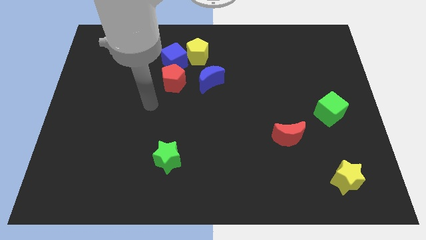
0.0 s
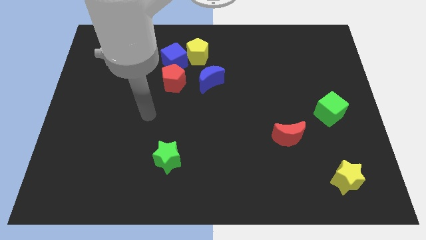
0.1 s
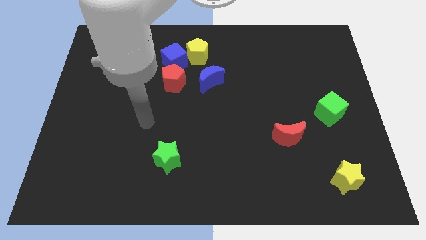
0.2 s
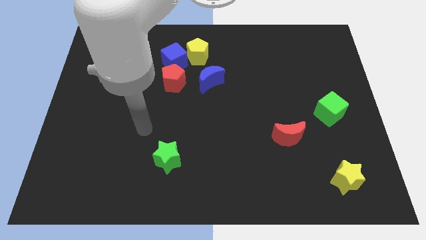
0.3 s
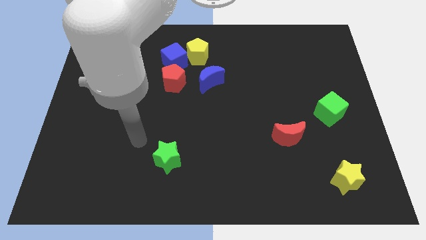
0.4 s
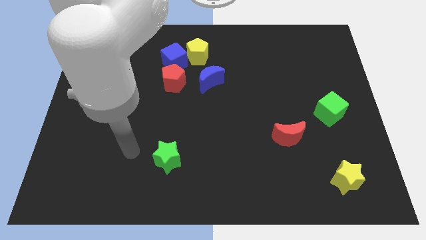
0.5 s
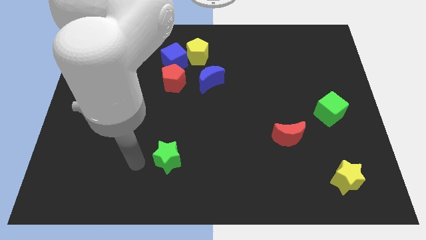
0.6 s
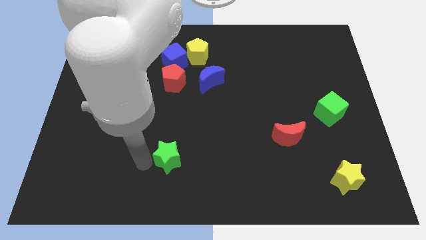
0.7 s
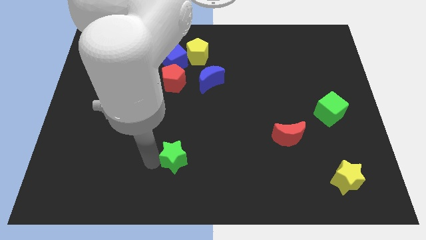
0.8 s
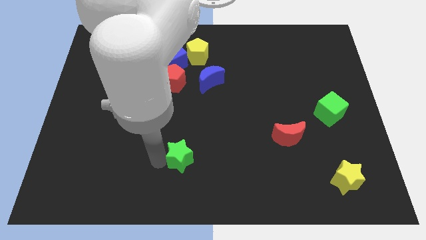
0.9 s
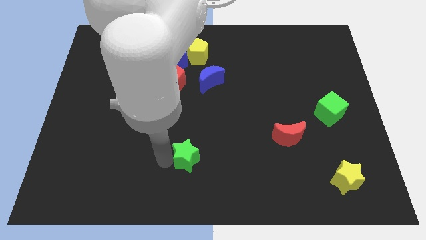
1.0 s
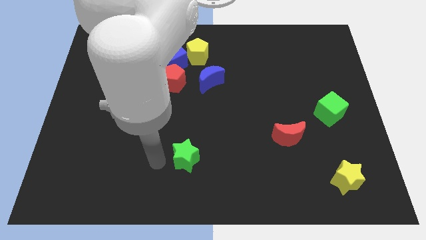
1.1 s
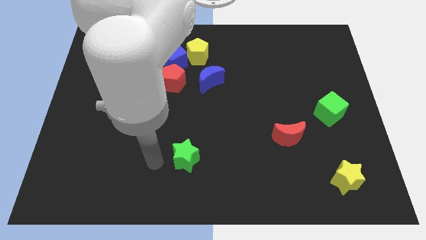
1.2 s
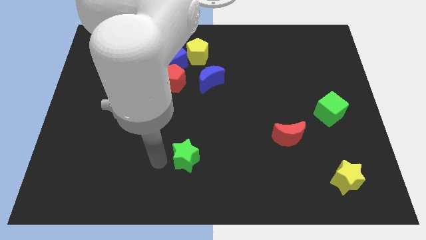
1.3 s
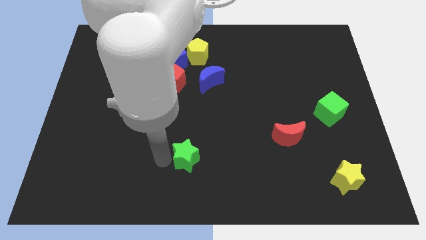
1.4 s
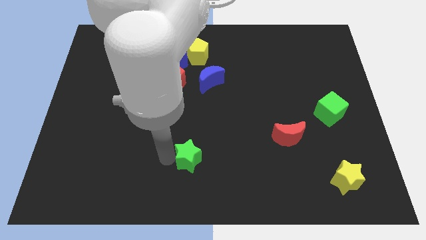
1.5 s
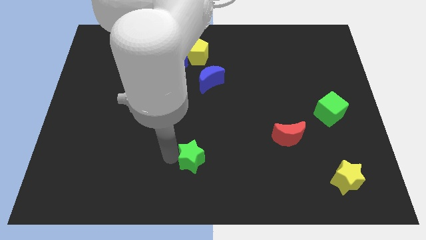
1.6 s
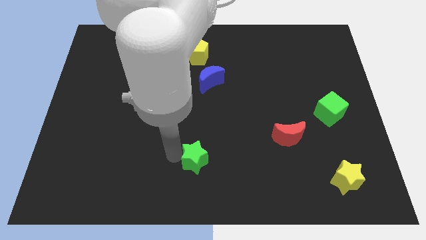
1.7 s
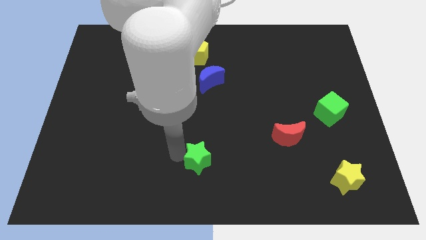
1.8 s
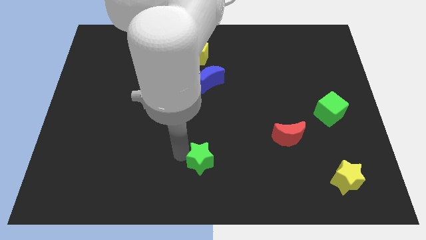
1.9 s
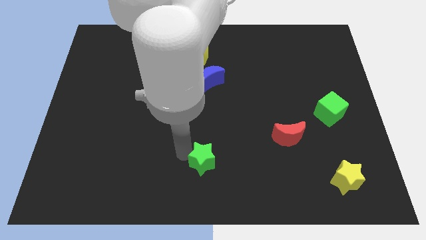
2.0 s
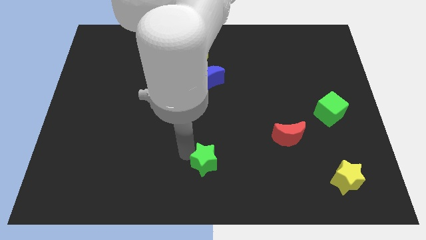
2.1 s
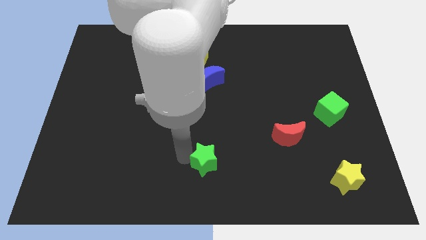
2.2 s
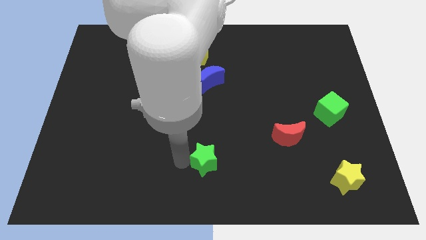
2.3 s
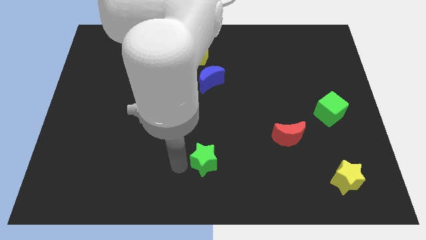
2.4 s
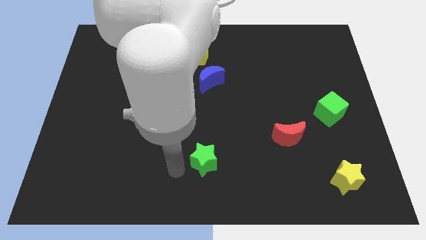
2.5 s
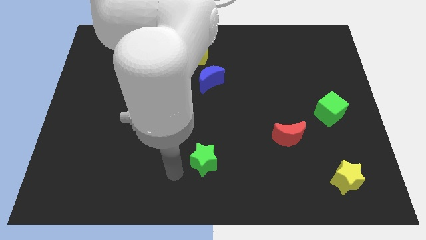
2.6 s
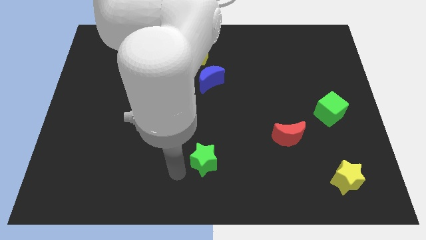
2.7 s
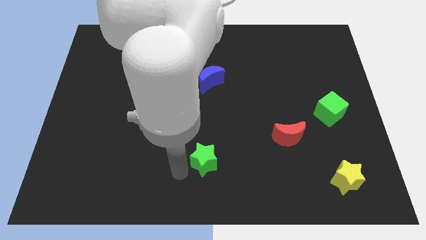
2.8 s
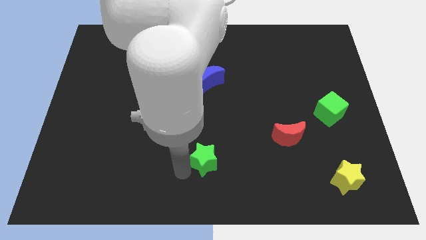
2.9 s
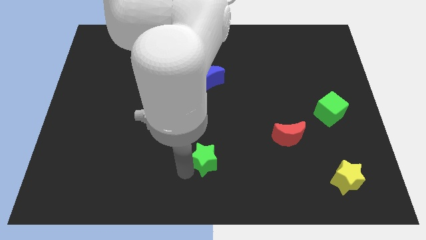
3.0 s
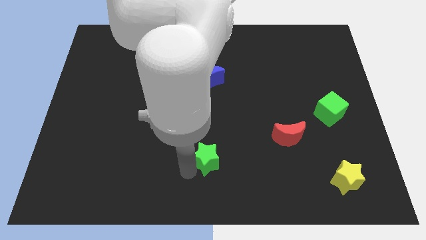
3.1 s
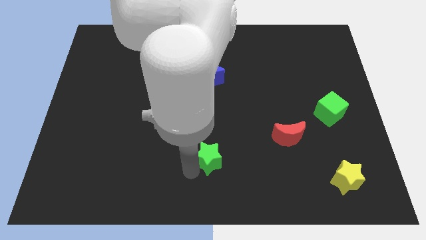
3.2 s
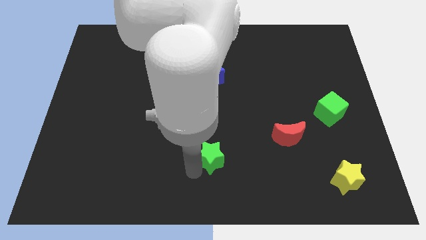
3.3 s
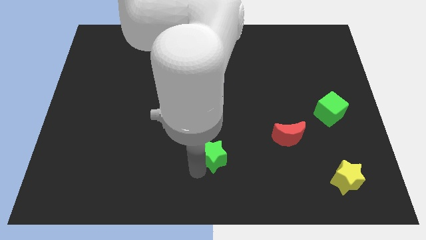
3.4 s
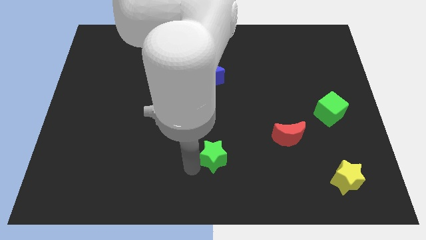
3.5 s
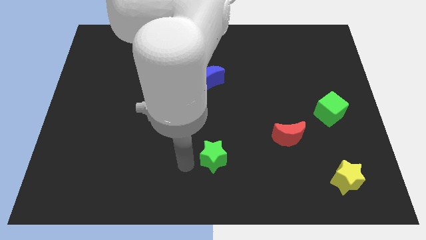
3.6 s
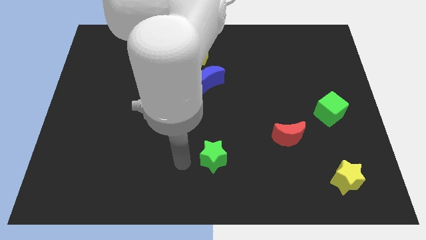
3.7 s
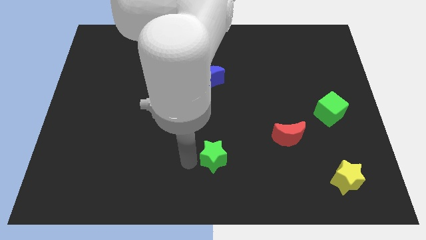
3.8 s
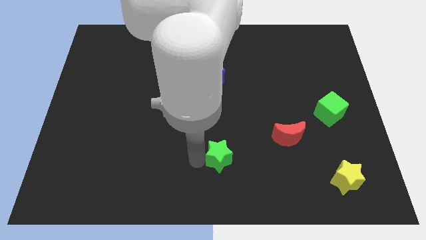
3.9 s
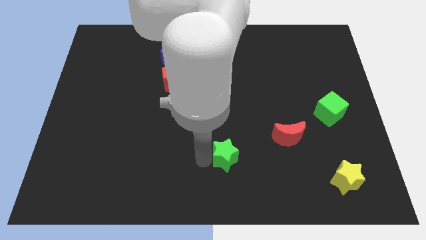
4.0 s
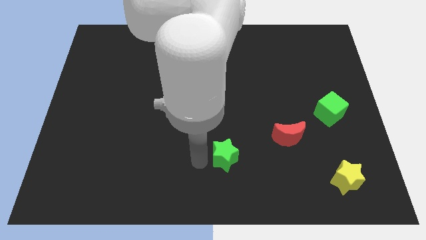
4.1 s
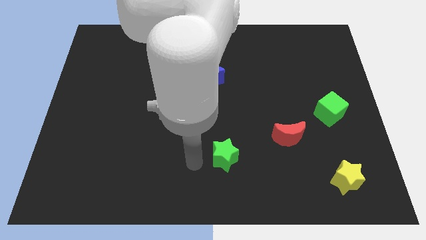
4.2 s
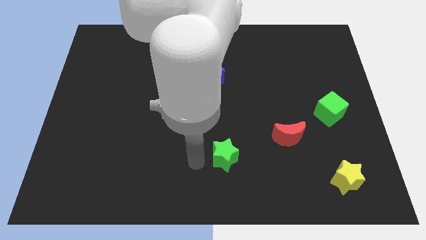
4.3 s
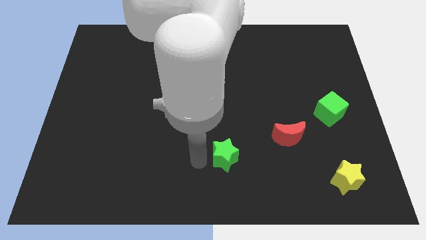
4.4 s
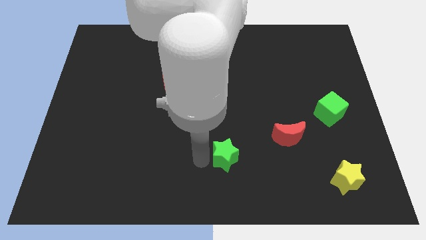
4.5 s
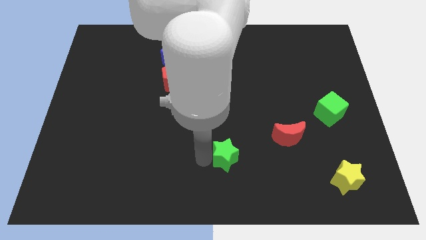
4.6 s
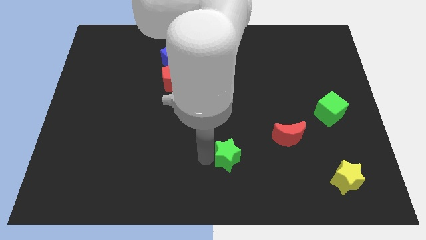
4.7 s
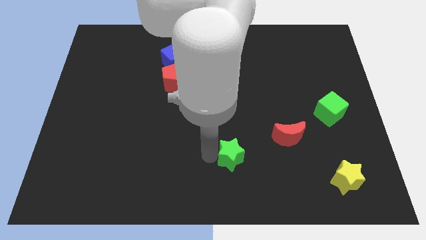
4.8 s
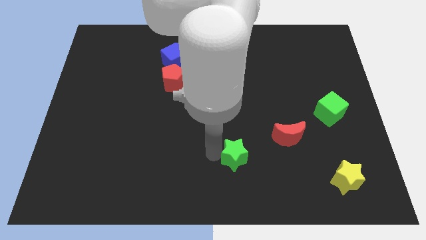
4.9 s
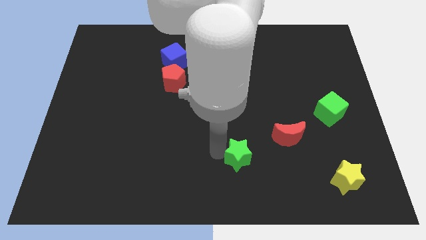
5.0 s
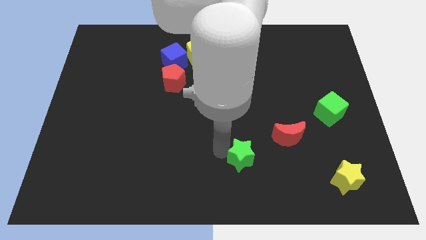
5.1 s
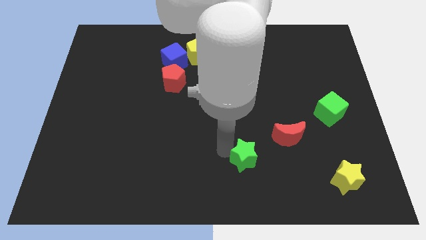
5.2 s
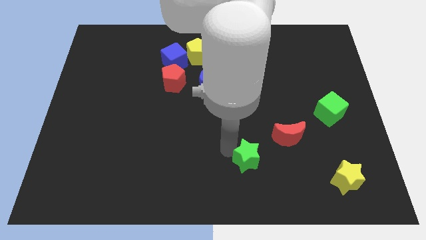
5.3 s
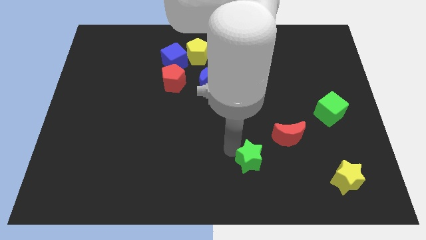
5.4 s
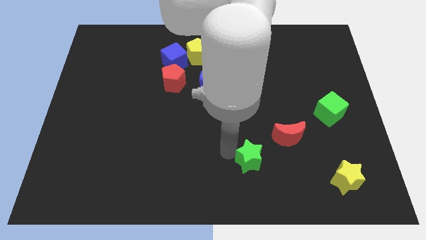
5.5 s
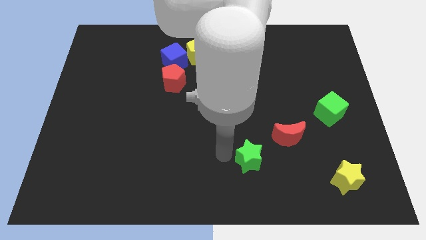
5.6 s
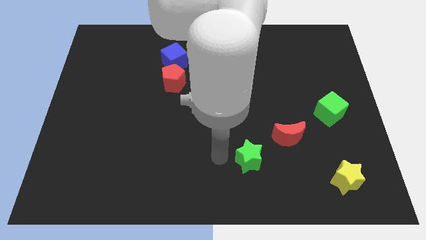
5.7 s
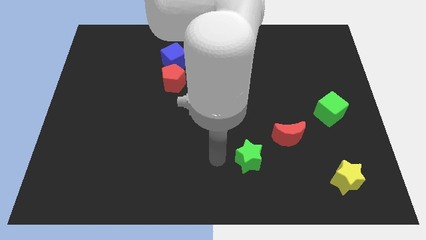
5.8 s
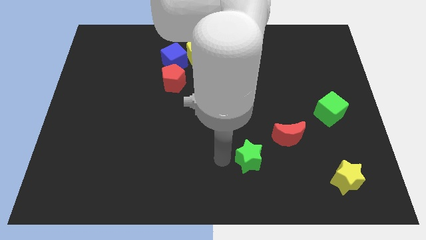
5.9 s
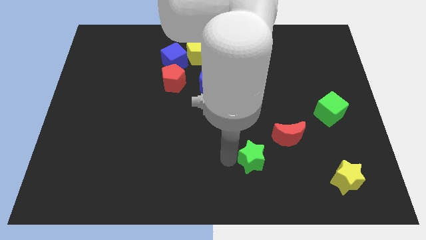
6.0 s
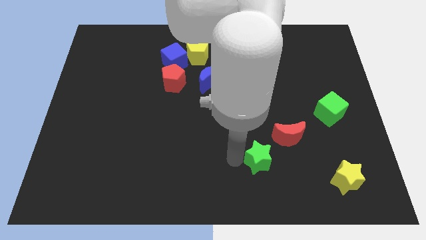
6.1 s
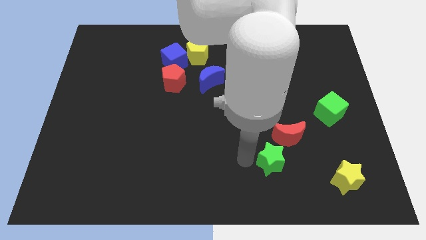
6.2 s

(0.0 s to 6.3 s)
move the green star right

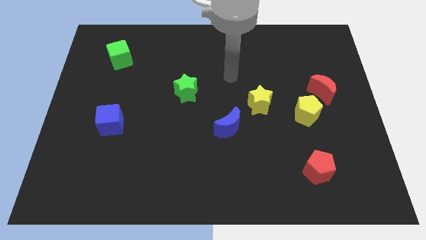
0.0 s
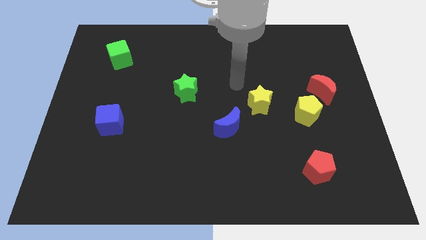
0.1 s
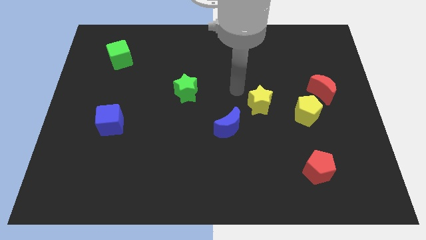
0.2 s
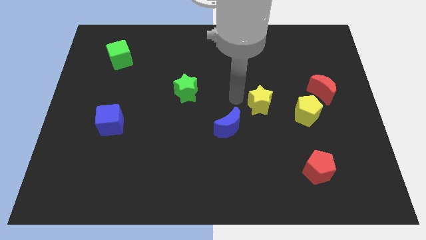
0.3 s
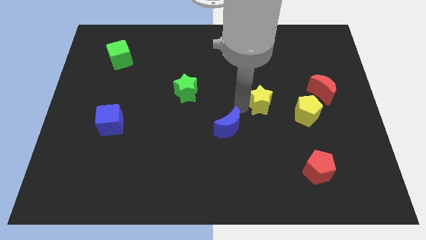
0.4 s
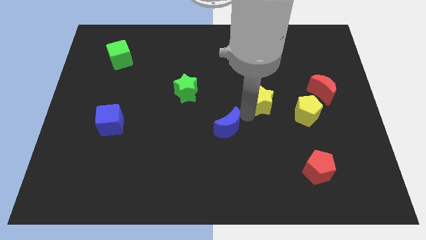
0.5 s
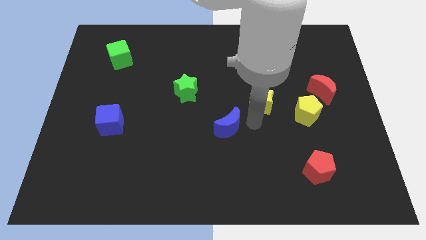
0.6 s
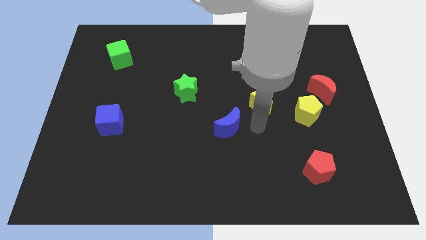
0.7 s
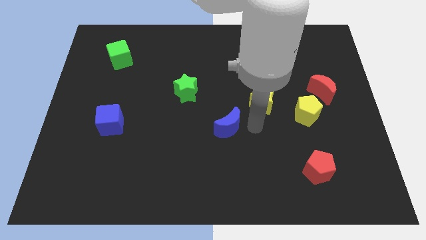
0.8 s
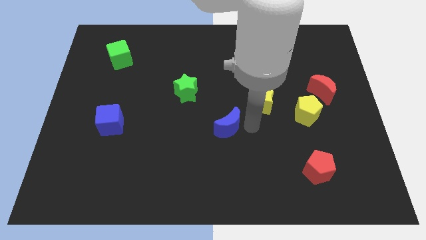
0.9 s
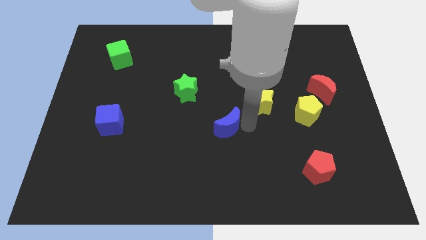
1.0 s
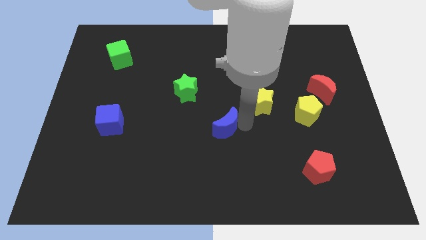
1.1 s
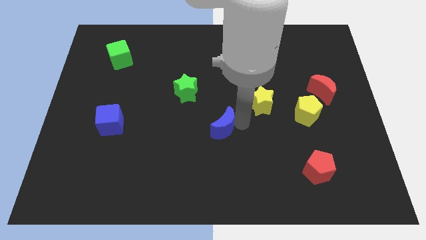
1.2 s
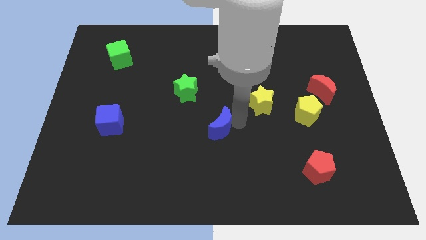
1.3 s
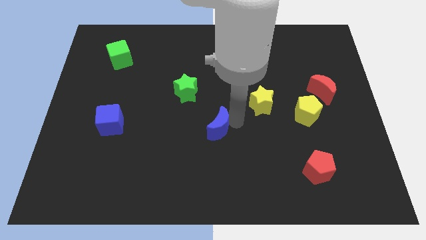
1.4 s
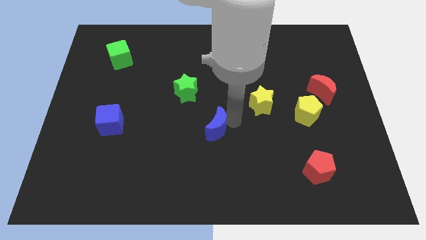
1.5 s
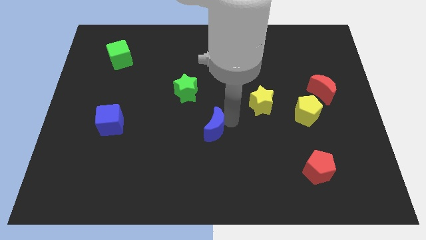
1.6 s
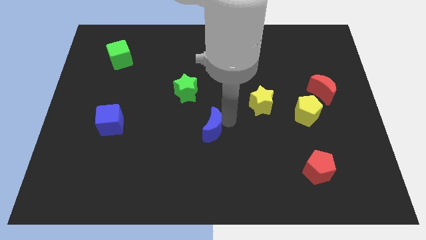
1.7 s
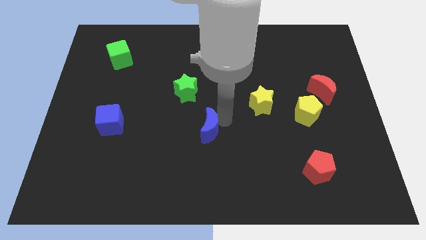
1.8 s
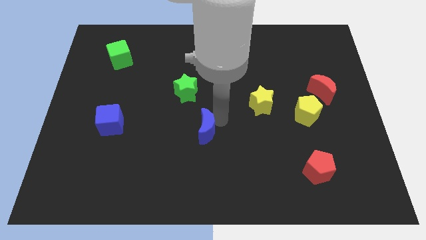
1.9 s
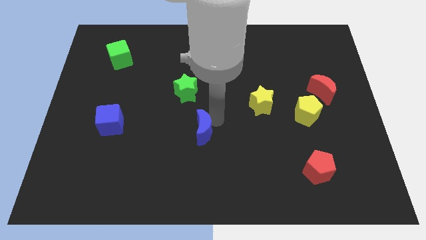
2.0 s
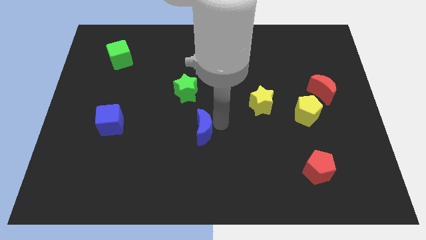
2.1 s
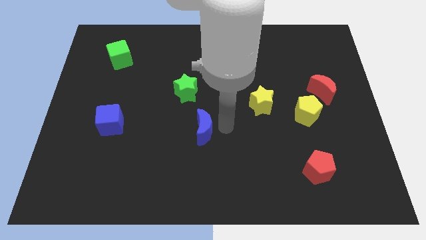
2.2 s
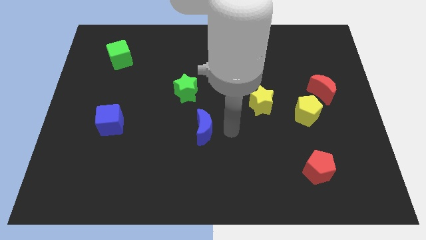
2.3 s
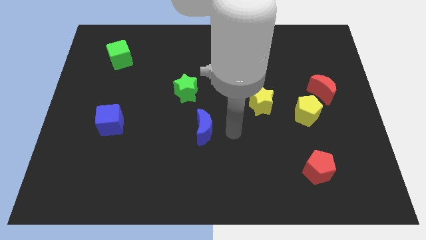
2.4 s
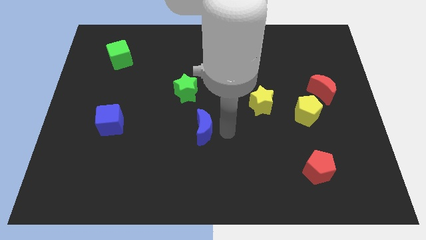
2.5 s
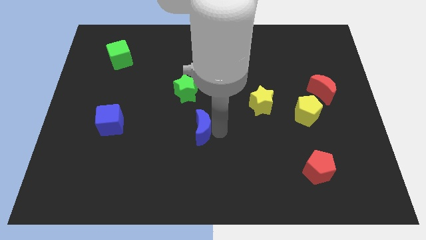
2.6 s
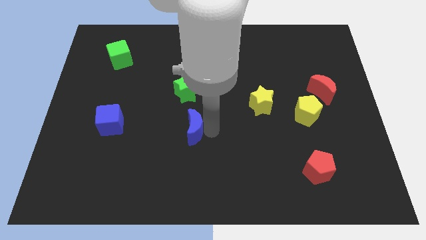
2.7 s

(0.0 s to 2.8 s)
slightly push the blue moon left
